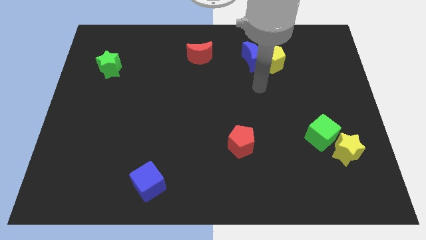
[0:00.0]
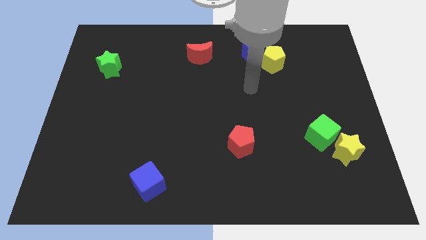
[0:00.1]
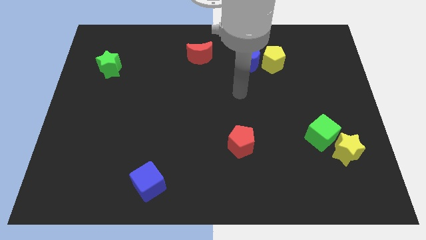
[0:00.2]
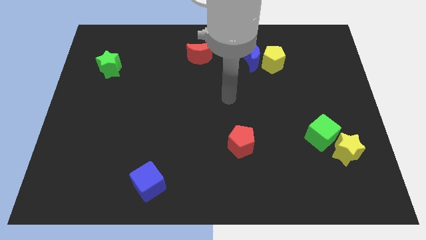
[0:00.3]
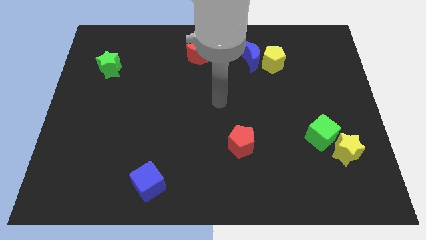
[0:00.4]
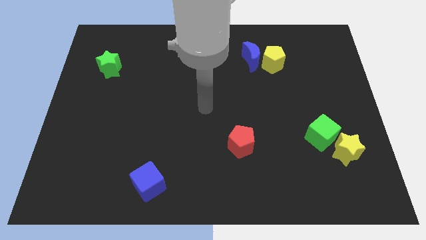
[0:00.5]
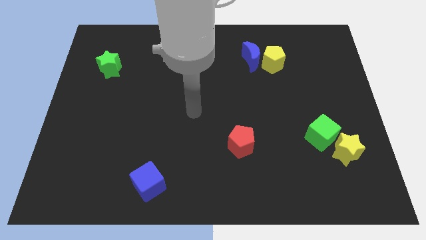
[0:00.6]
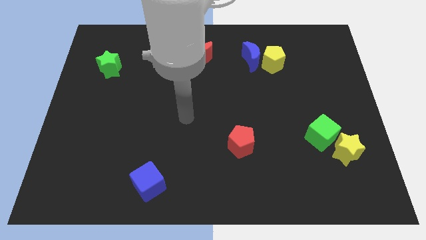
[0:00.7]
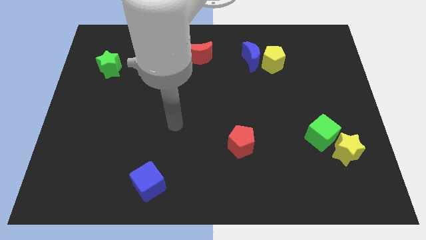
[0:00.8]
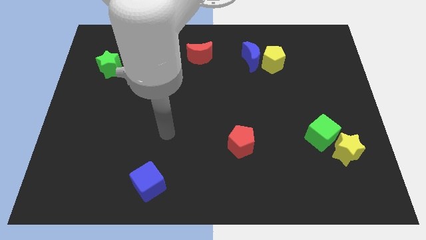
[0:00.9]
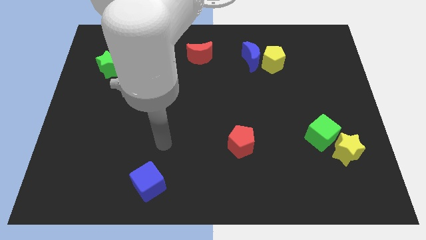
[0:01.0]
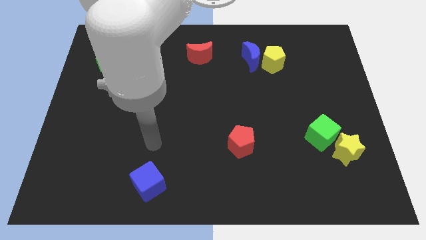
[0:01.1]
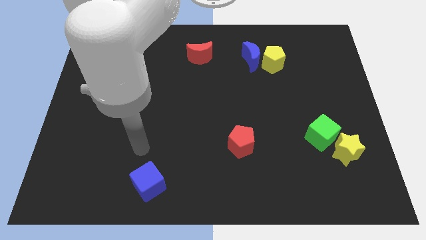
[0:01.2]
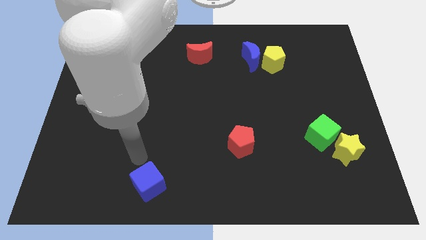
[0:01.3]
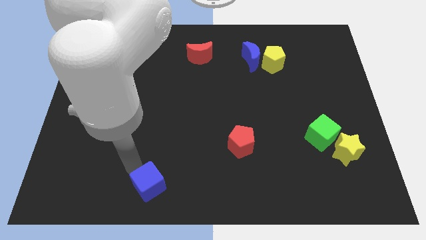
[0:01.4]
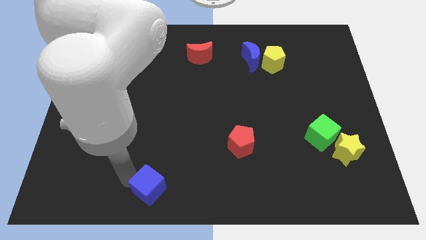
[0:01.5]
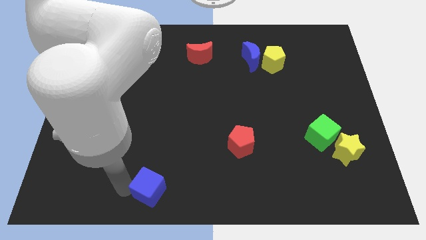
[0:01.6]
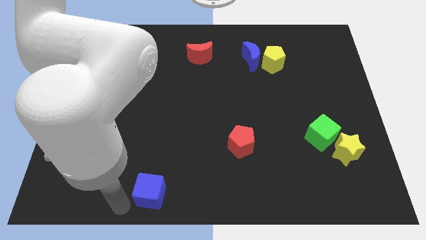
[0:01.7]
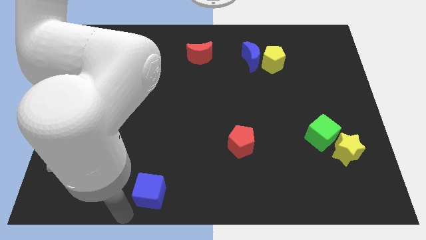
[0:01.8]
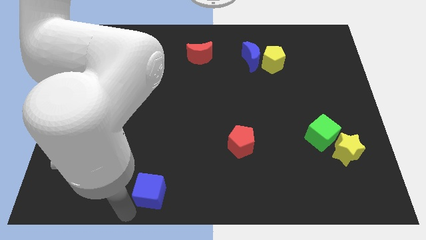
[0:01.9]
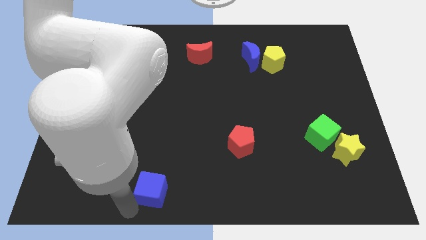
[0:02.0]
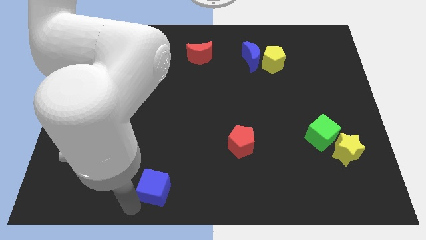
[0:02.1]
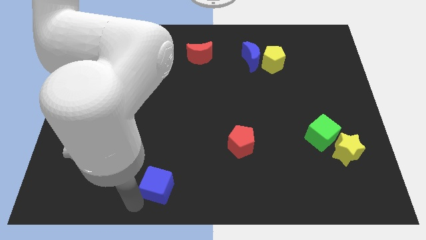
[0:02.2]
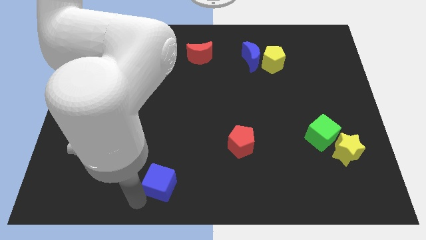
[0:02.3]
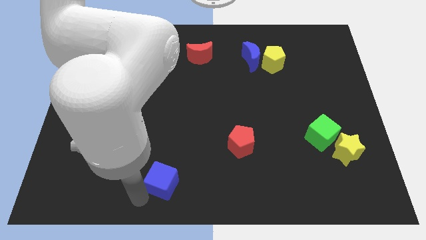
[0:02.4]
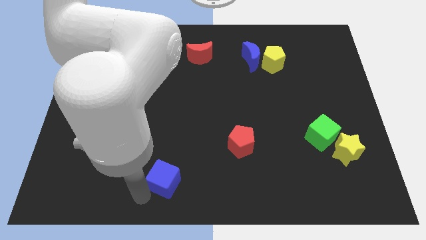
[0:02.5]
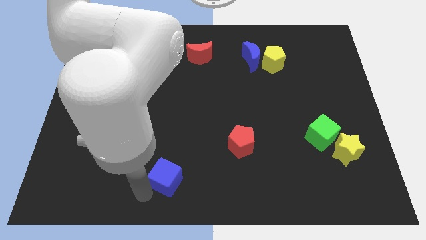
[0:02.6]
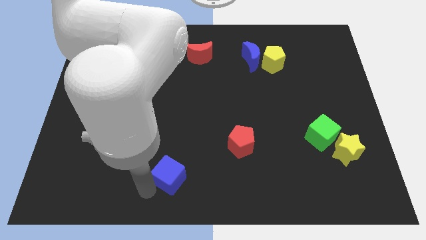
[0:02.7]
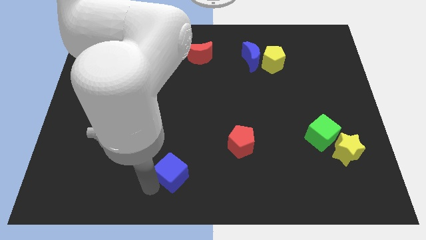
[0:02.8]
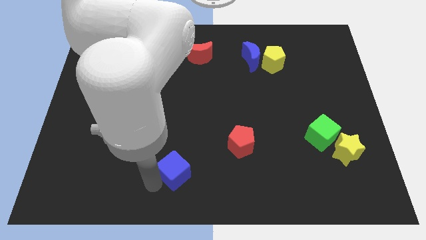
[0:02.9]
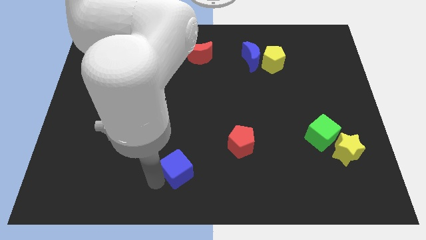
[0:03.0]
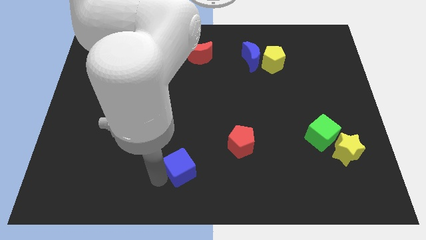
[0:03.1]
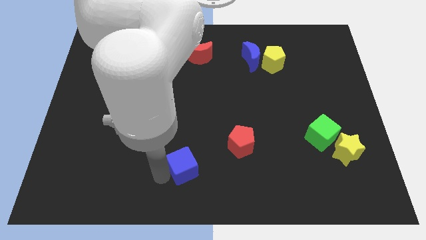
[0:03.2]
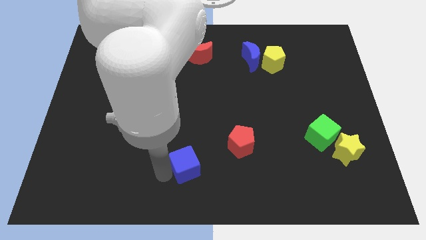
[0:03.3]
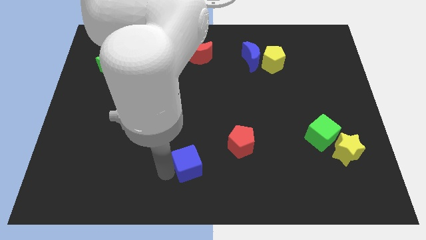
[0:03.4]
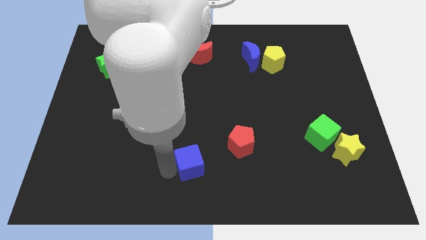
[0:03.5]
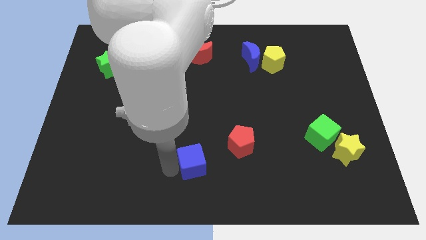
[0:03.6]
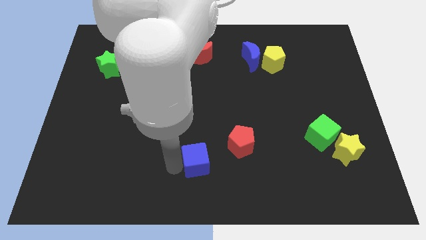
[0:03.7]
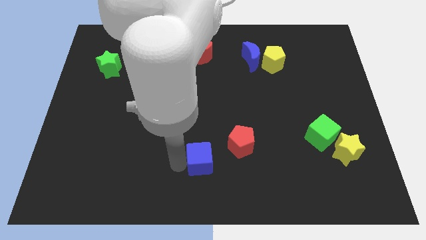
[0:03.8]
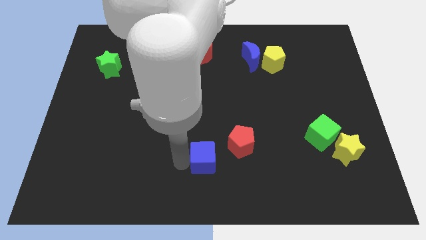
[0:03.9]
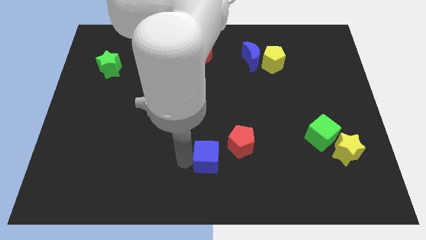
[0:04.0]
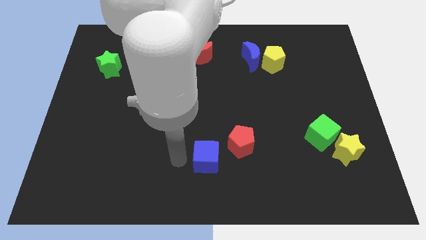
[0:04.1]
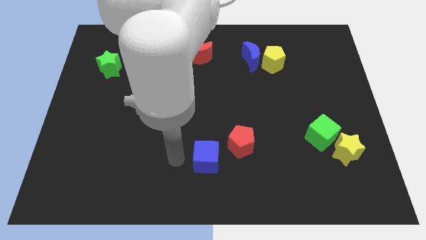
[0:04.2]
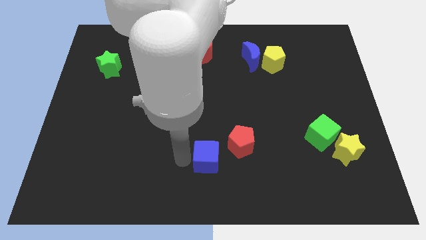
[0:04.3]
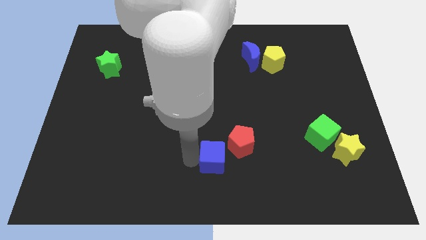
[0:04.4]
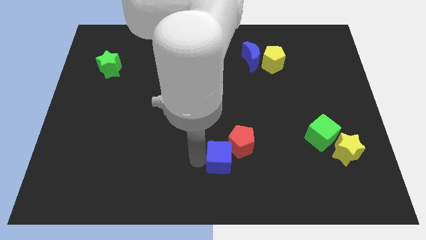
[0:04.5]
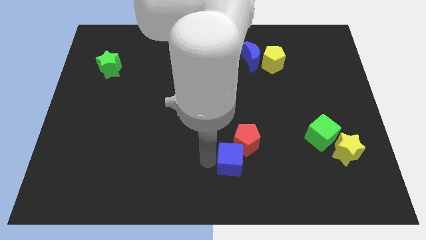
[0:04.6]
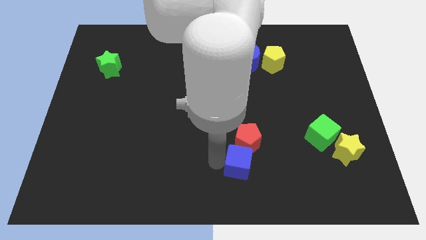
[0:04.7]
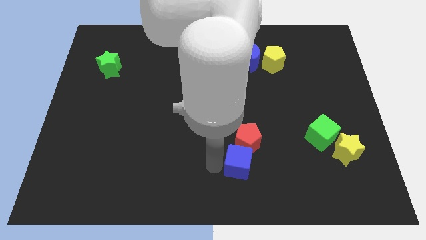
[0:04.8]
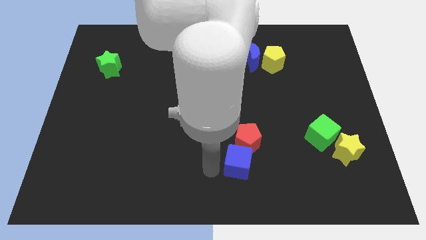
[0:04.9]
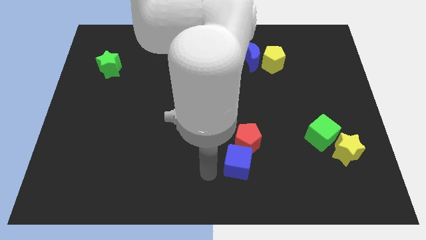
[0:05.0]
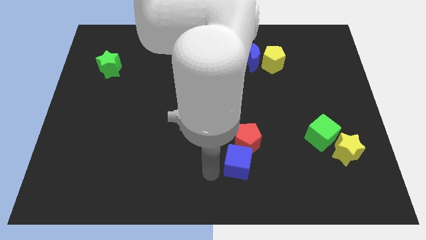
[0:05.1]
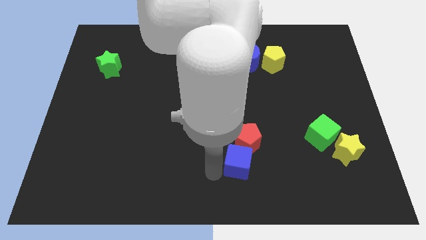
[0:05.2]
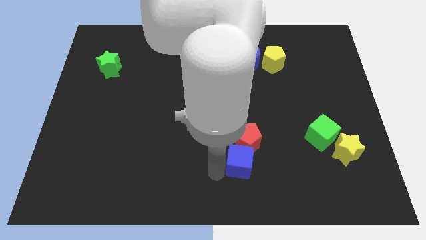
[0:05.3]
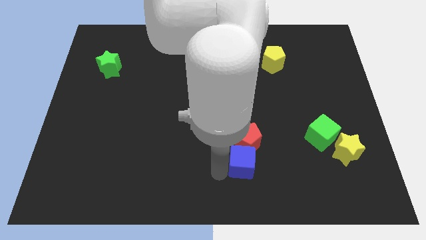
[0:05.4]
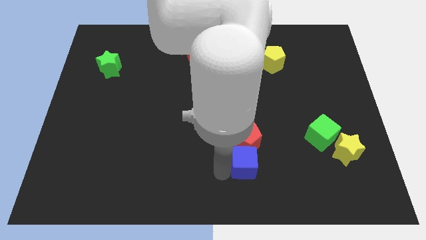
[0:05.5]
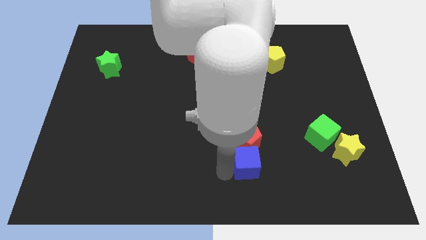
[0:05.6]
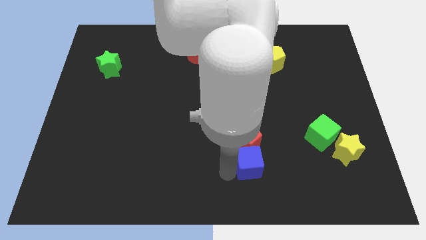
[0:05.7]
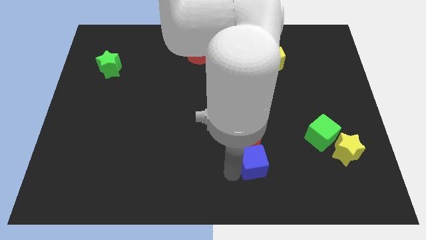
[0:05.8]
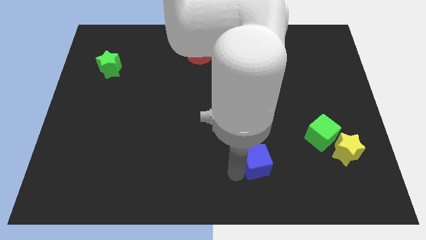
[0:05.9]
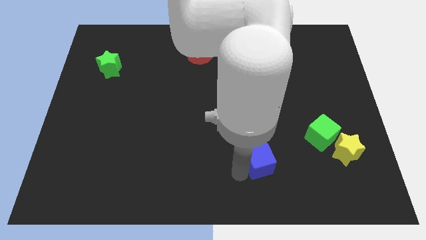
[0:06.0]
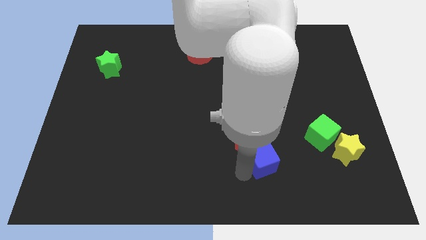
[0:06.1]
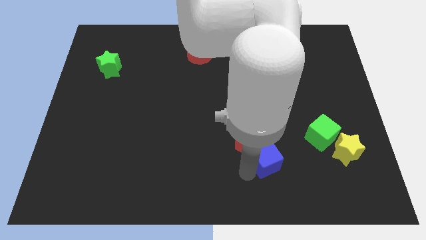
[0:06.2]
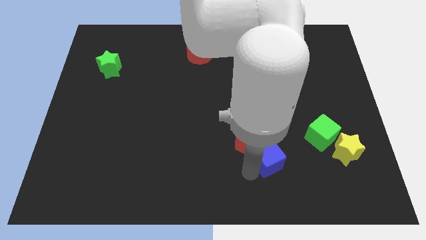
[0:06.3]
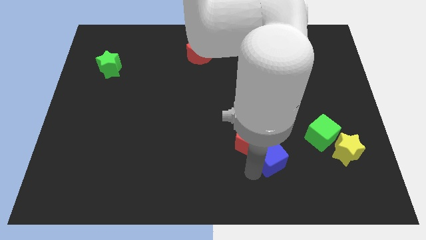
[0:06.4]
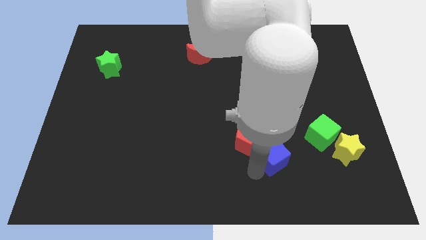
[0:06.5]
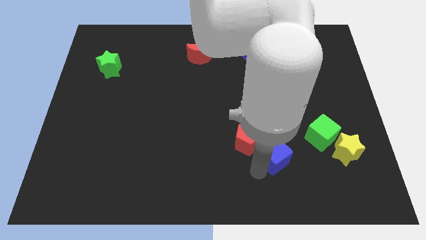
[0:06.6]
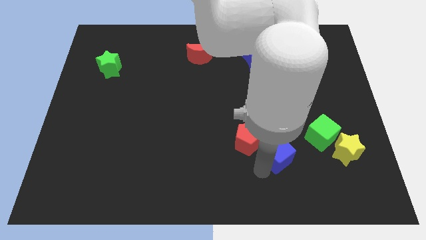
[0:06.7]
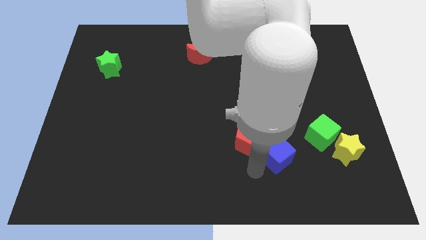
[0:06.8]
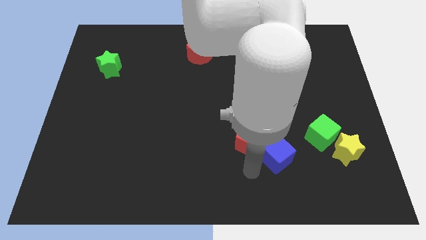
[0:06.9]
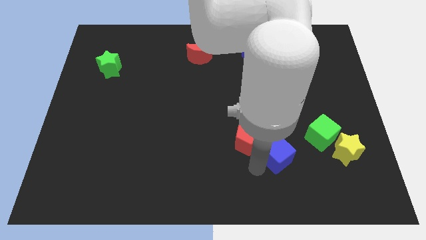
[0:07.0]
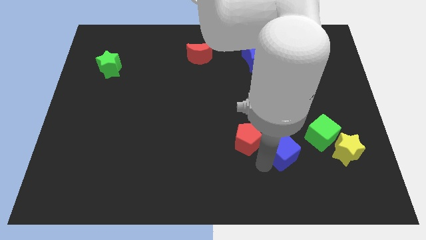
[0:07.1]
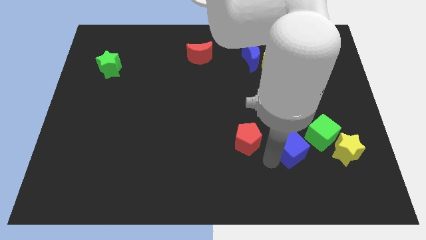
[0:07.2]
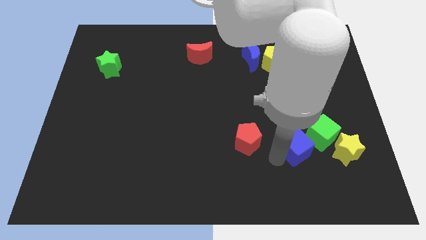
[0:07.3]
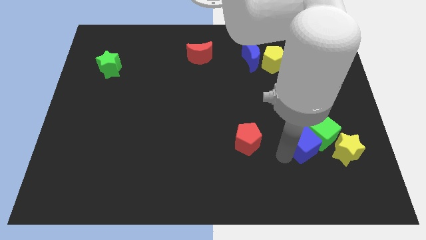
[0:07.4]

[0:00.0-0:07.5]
slide the blue cube next to the green cube
